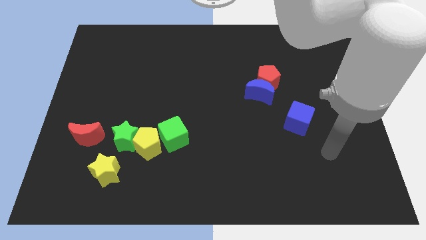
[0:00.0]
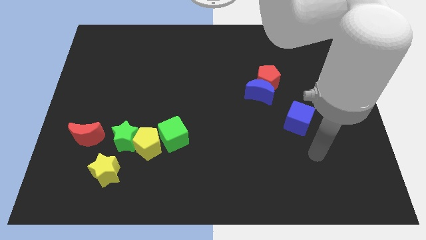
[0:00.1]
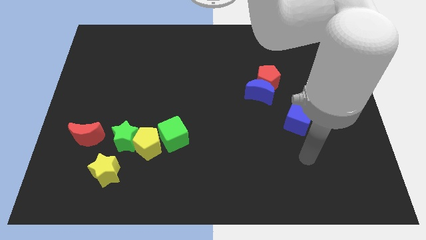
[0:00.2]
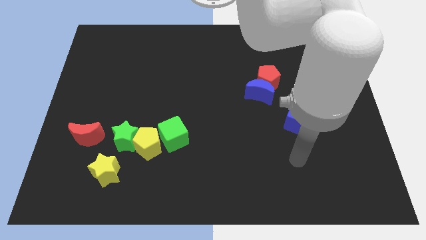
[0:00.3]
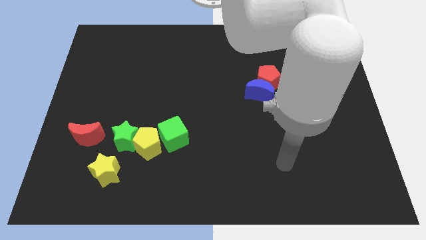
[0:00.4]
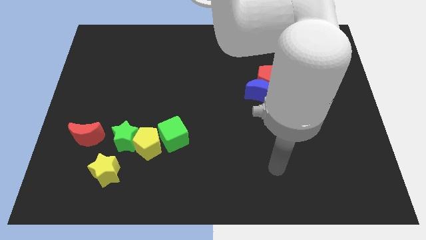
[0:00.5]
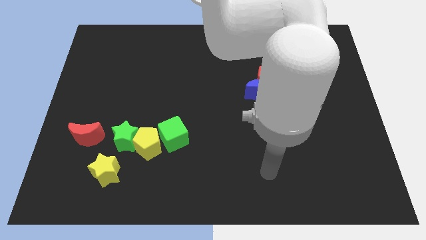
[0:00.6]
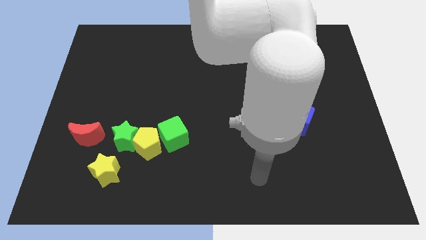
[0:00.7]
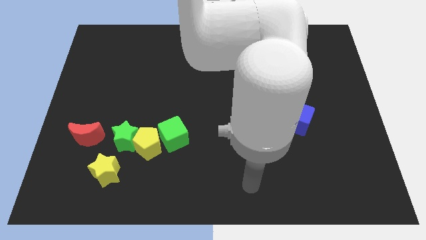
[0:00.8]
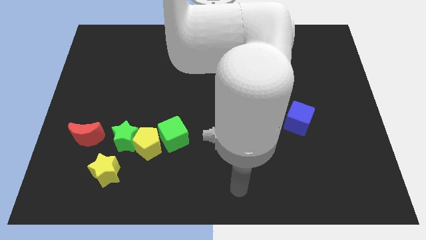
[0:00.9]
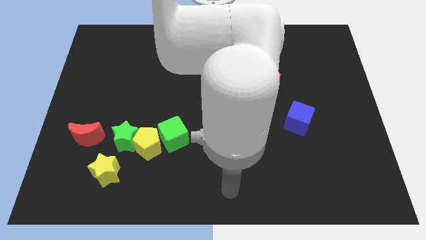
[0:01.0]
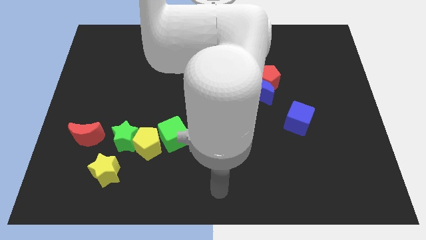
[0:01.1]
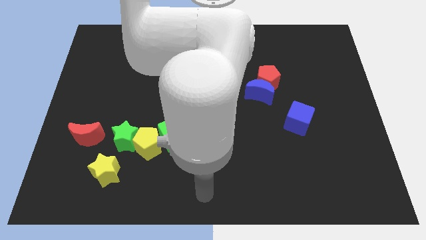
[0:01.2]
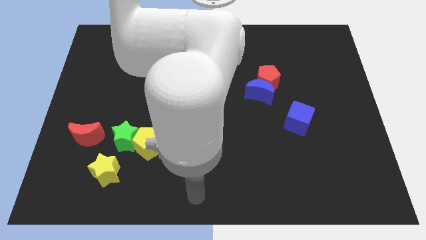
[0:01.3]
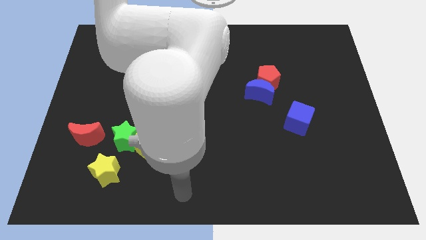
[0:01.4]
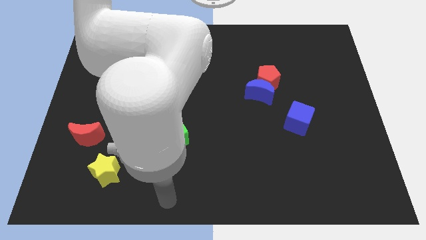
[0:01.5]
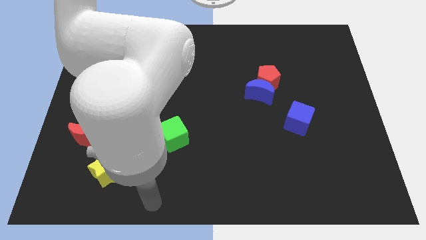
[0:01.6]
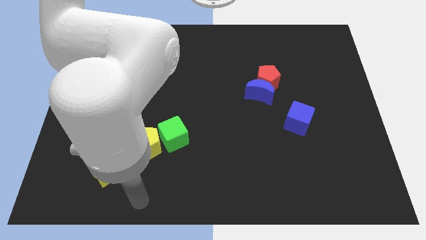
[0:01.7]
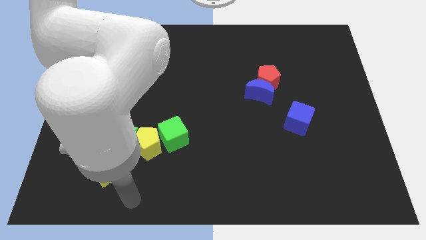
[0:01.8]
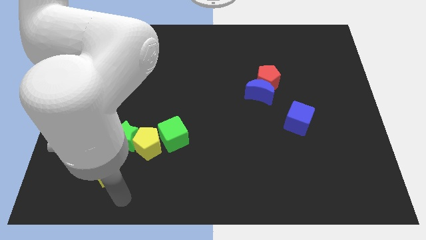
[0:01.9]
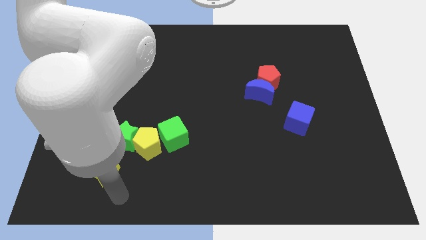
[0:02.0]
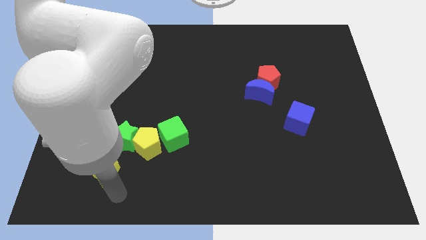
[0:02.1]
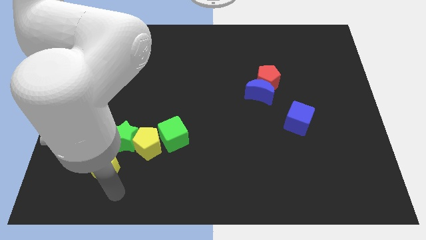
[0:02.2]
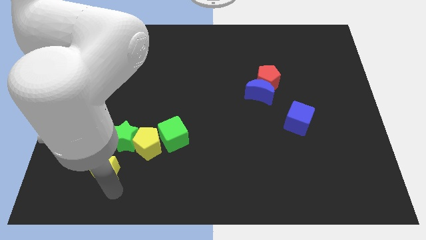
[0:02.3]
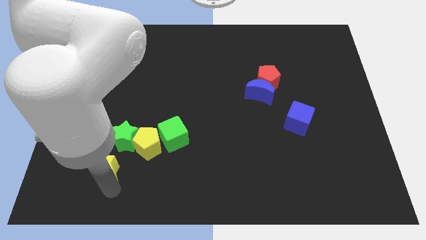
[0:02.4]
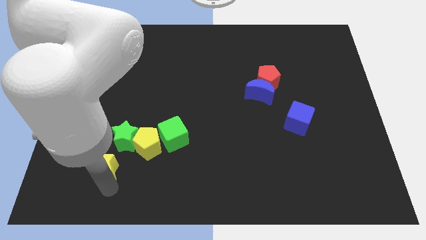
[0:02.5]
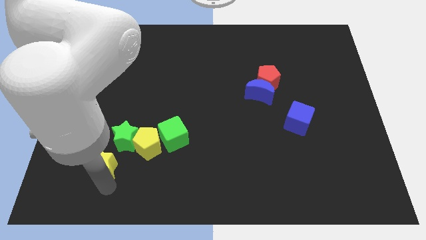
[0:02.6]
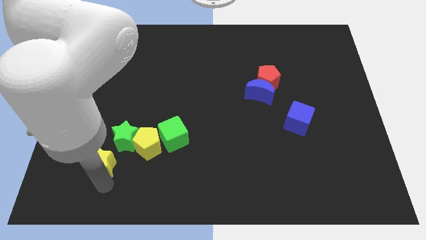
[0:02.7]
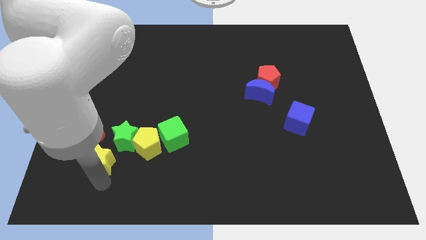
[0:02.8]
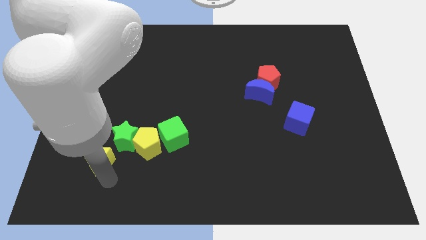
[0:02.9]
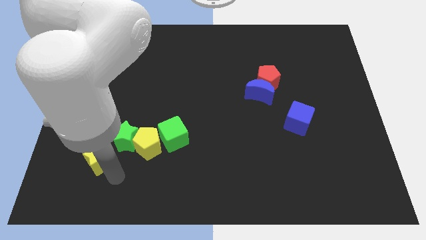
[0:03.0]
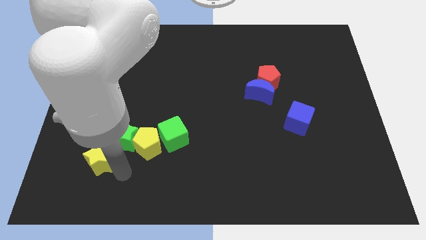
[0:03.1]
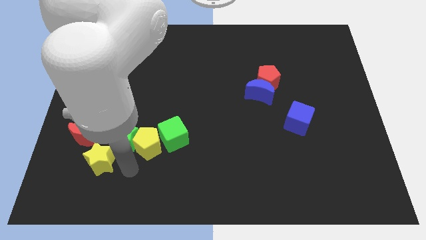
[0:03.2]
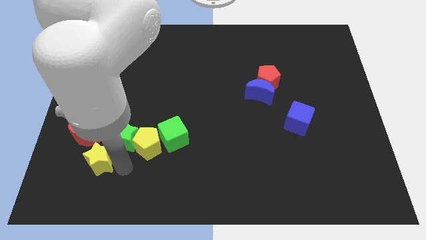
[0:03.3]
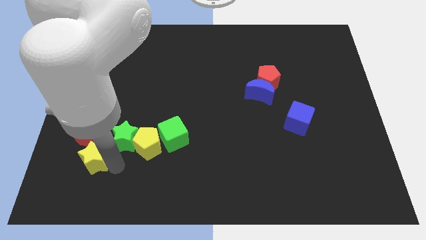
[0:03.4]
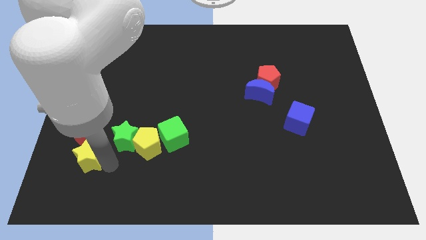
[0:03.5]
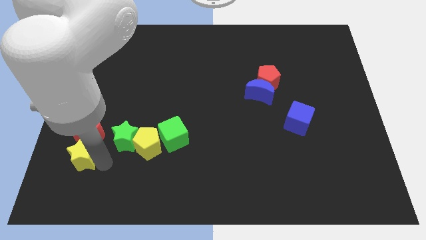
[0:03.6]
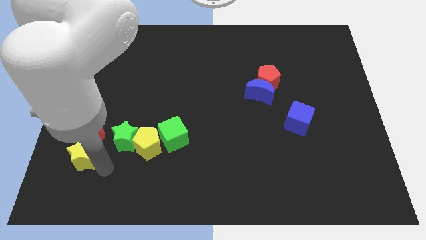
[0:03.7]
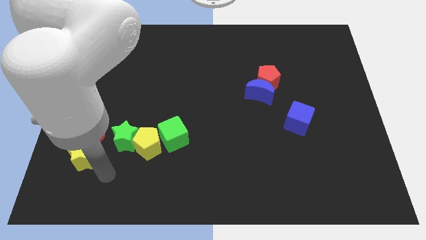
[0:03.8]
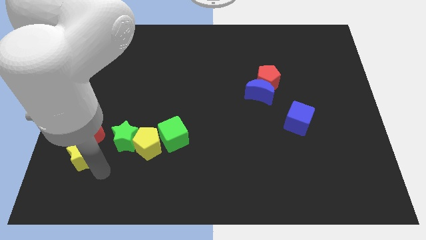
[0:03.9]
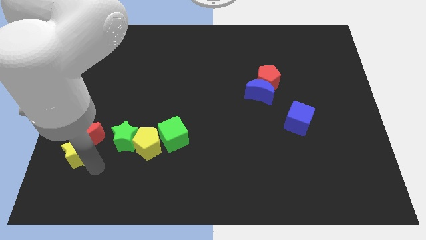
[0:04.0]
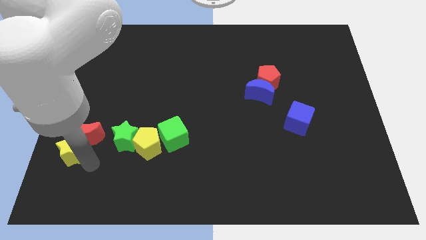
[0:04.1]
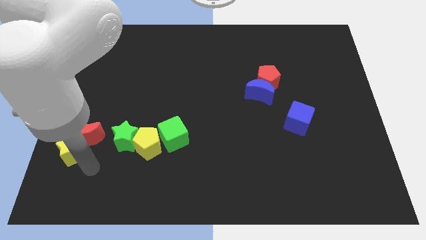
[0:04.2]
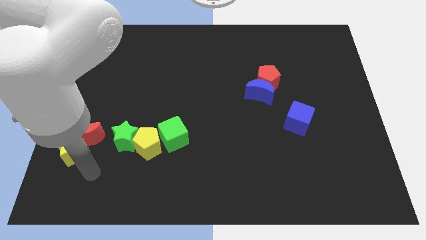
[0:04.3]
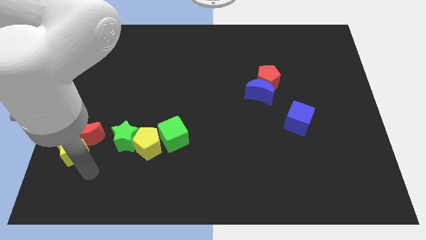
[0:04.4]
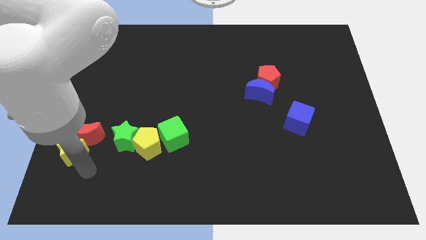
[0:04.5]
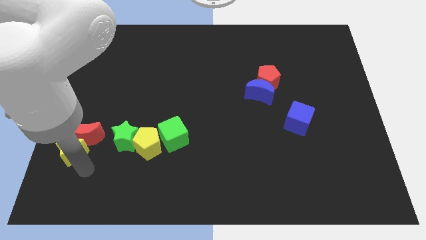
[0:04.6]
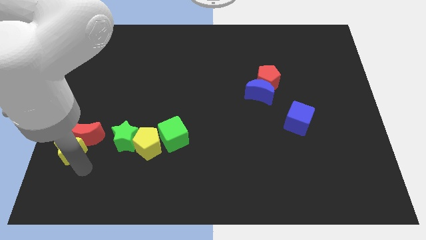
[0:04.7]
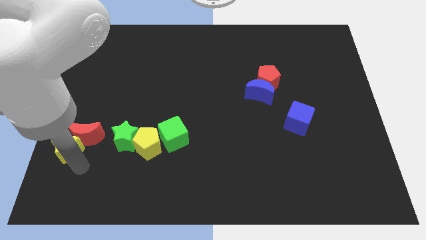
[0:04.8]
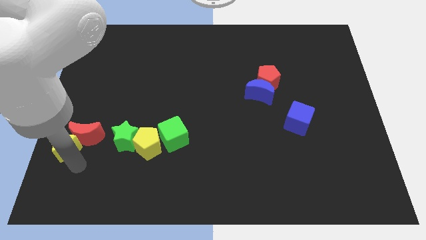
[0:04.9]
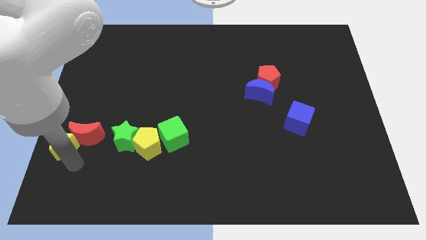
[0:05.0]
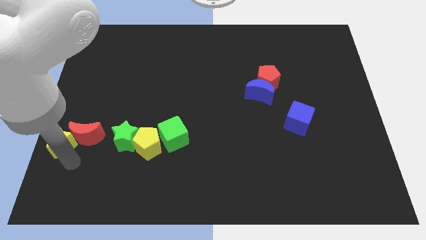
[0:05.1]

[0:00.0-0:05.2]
slide the yellow star to the center left

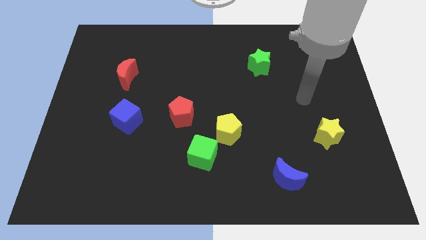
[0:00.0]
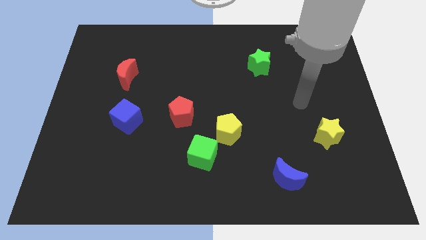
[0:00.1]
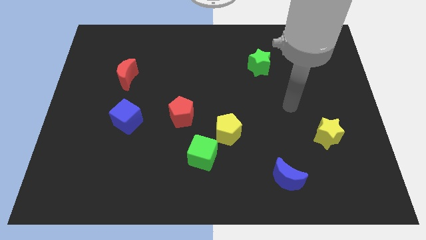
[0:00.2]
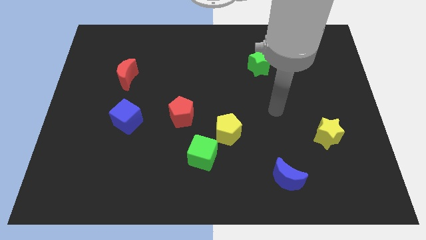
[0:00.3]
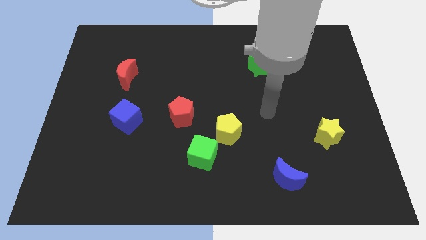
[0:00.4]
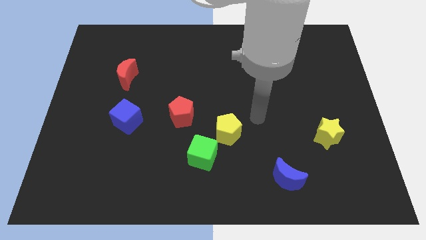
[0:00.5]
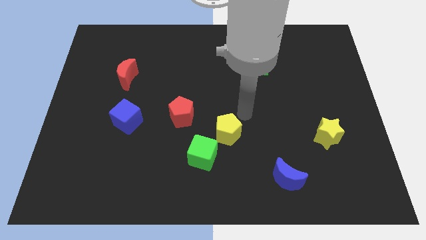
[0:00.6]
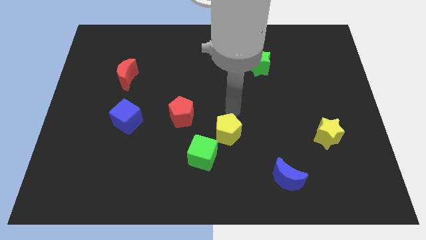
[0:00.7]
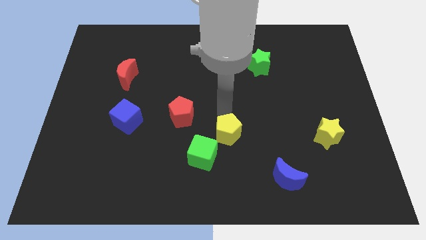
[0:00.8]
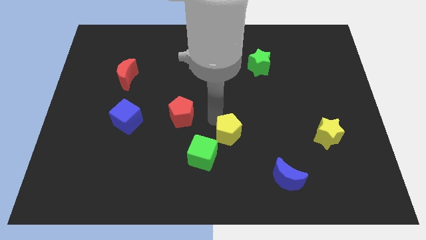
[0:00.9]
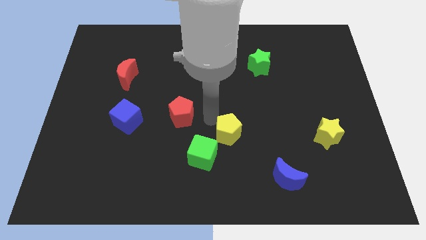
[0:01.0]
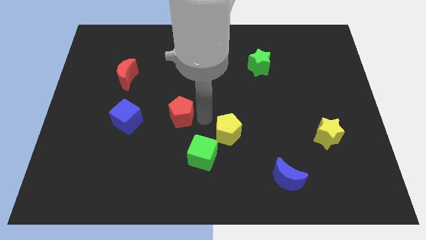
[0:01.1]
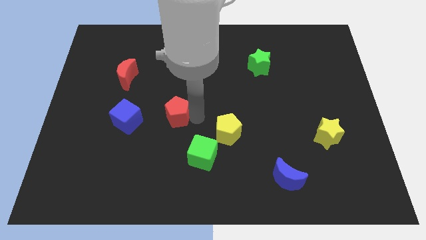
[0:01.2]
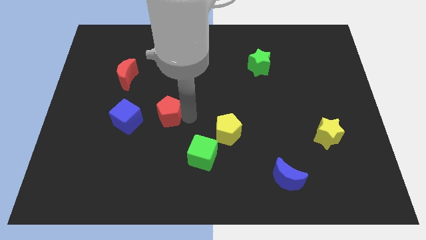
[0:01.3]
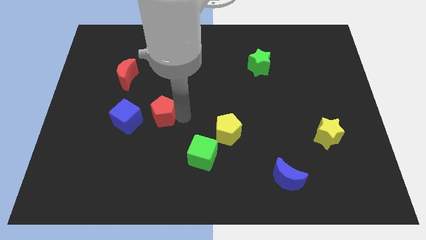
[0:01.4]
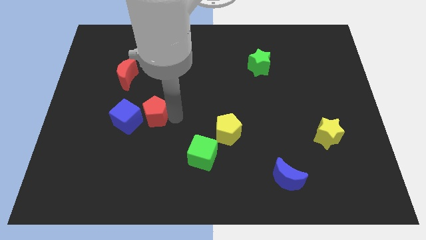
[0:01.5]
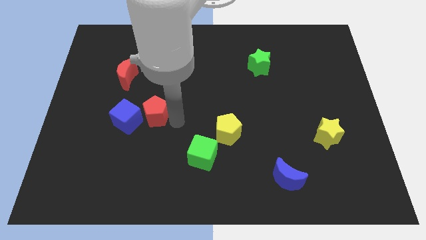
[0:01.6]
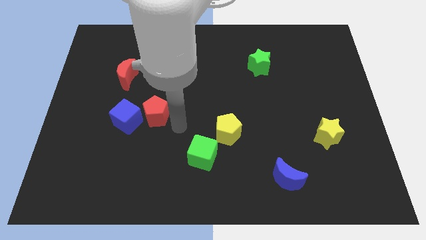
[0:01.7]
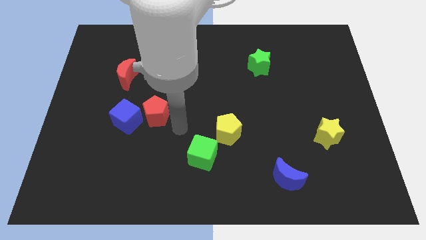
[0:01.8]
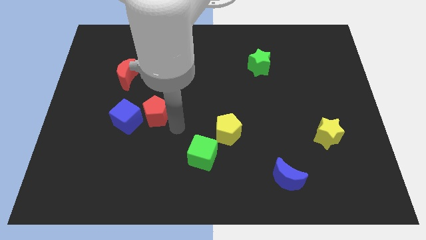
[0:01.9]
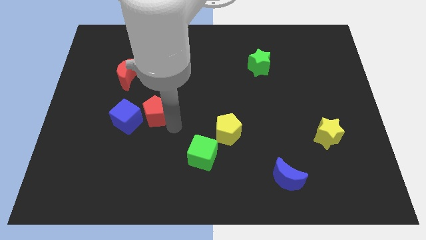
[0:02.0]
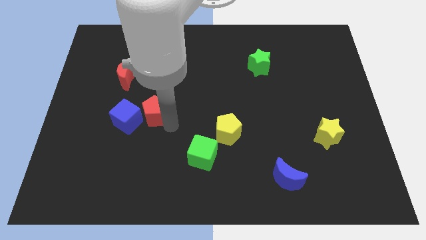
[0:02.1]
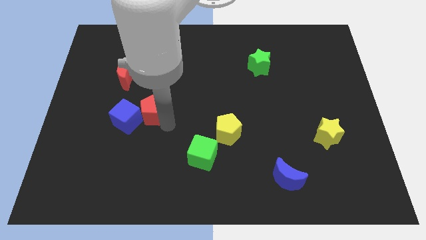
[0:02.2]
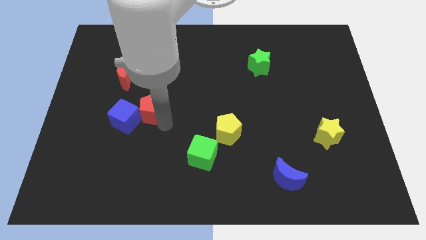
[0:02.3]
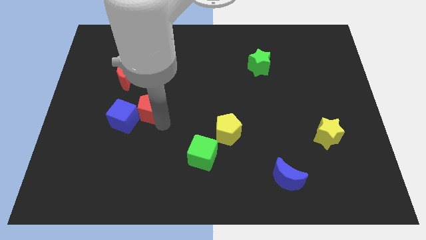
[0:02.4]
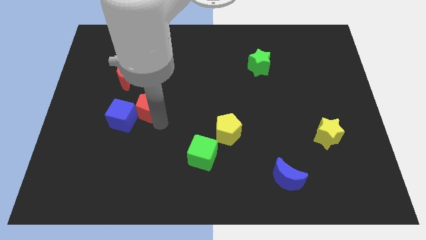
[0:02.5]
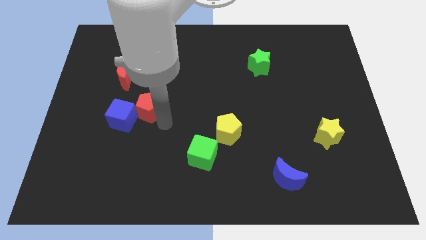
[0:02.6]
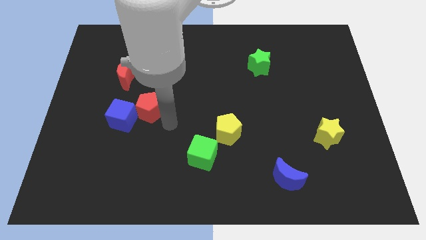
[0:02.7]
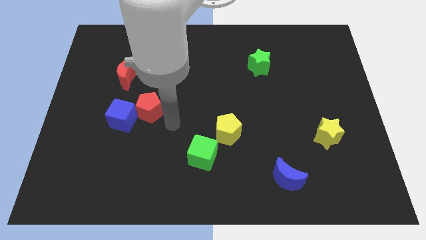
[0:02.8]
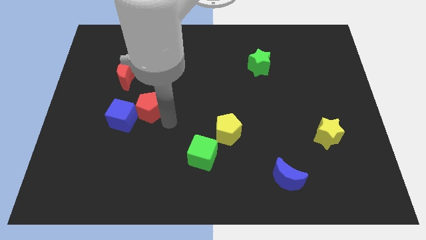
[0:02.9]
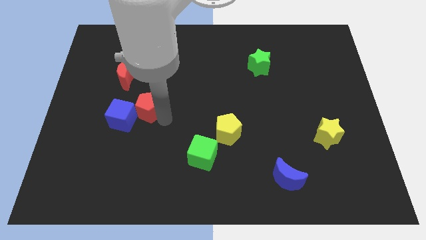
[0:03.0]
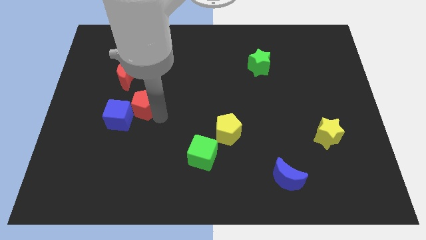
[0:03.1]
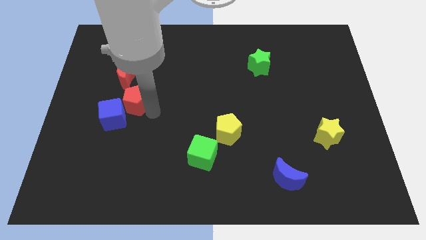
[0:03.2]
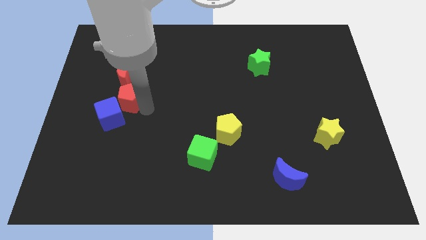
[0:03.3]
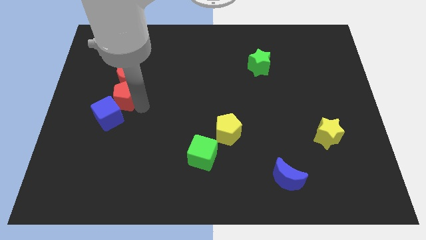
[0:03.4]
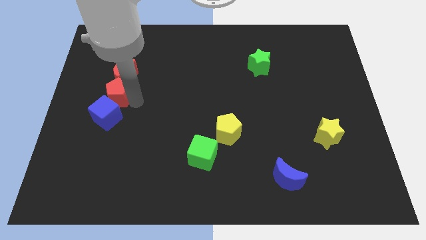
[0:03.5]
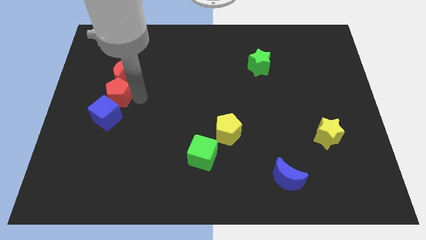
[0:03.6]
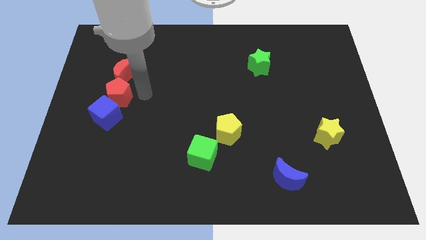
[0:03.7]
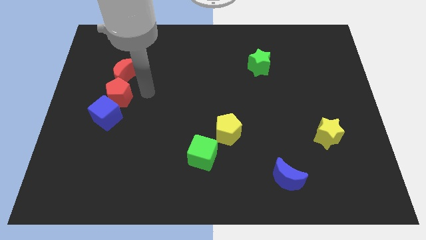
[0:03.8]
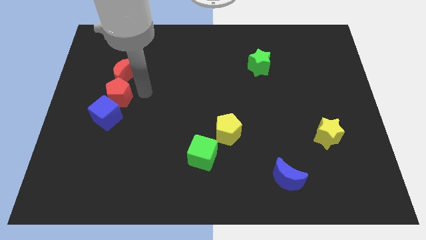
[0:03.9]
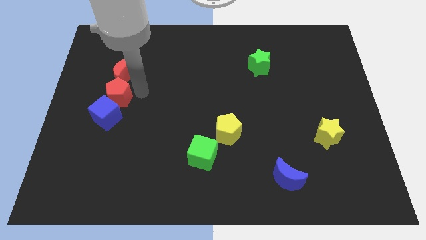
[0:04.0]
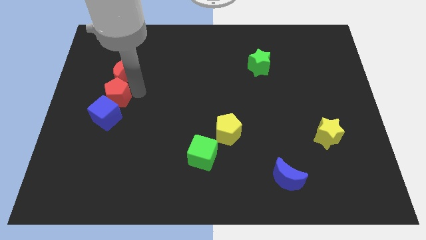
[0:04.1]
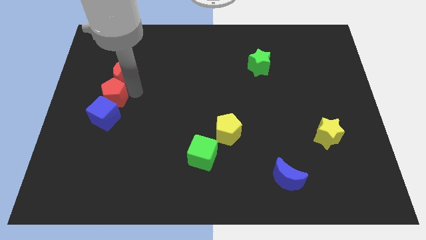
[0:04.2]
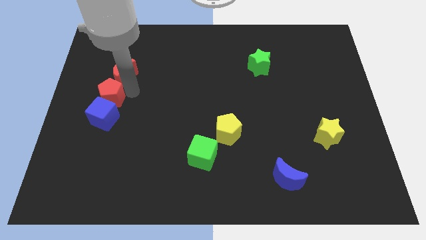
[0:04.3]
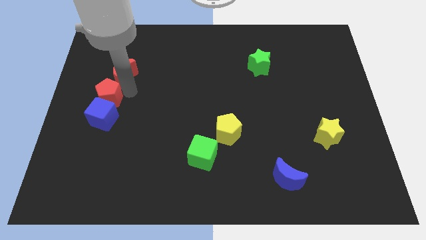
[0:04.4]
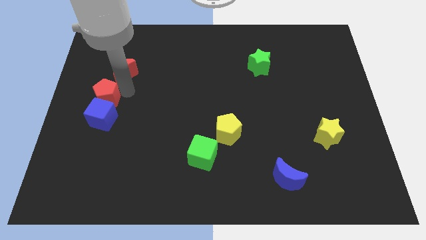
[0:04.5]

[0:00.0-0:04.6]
push the red pentagon to the center left
